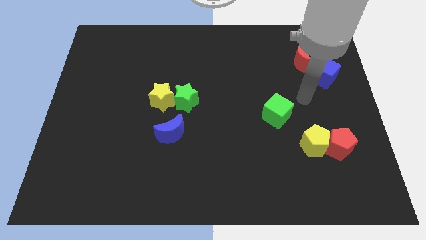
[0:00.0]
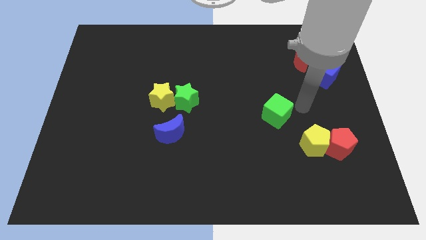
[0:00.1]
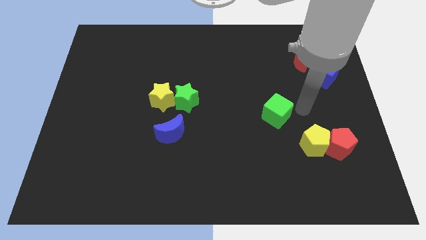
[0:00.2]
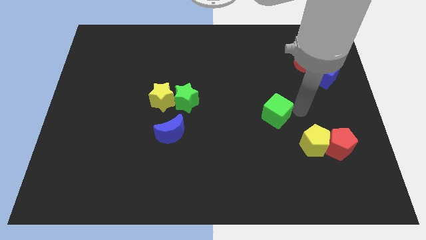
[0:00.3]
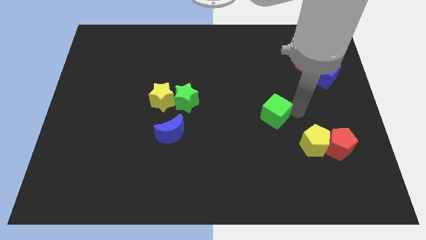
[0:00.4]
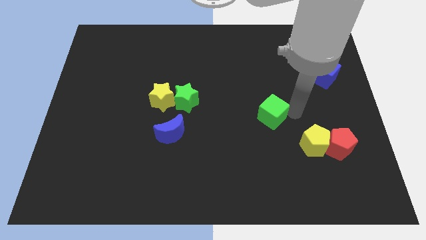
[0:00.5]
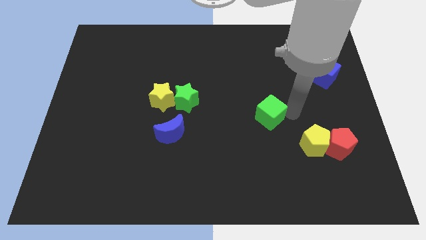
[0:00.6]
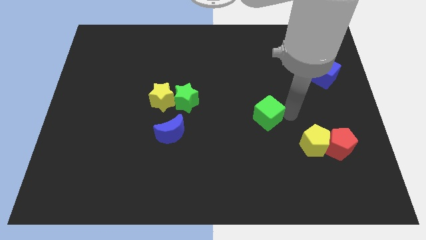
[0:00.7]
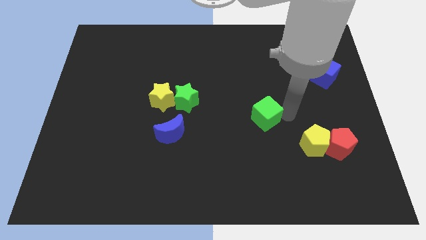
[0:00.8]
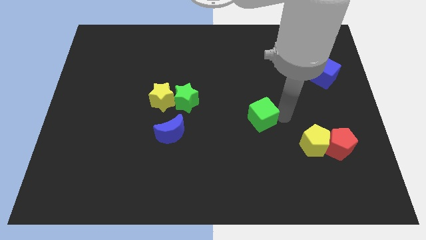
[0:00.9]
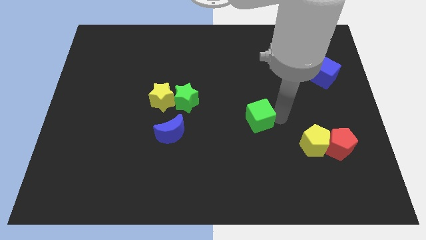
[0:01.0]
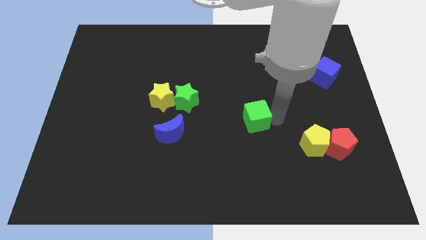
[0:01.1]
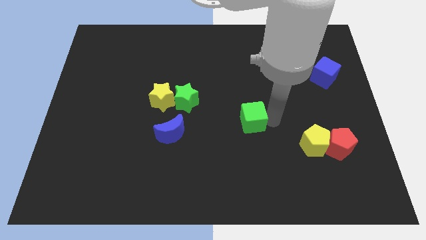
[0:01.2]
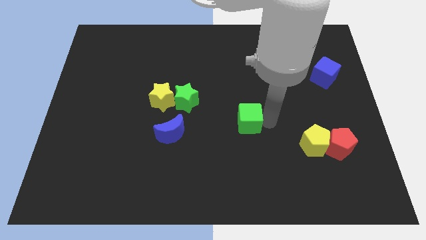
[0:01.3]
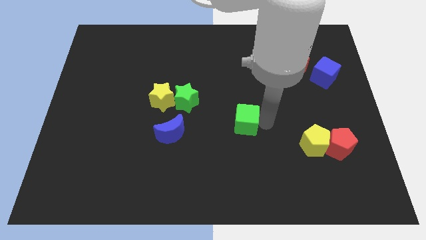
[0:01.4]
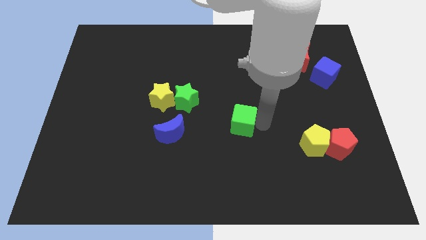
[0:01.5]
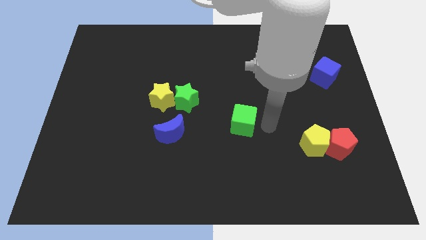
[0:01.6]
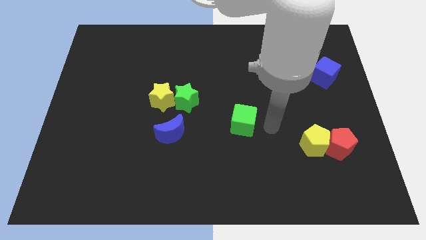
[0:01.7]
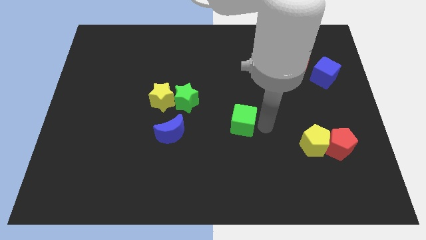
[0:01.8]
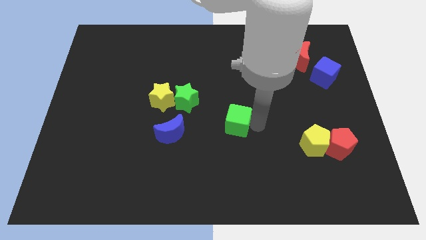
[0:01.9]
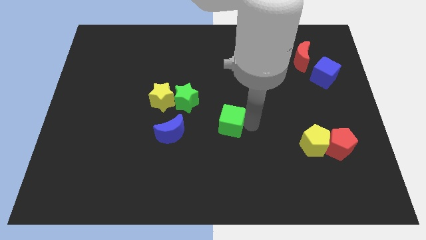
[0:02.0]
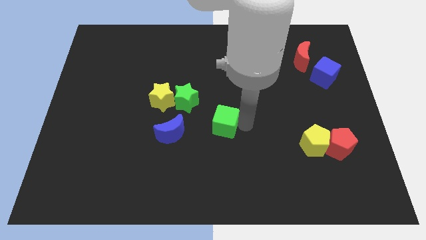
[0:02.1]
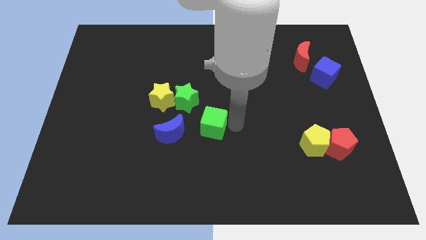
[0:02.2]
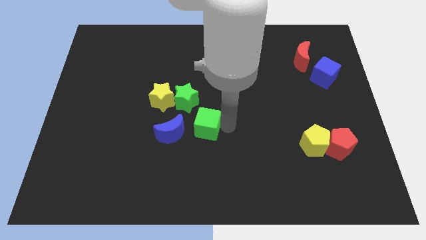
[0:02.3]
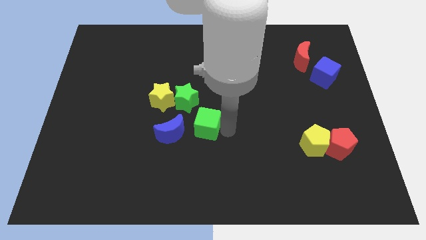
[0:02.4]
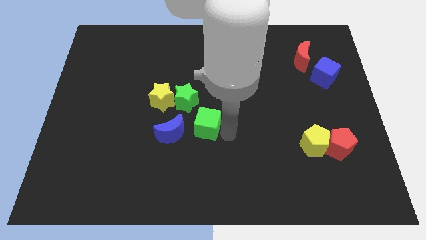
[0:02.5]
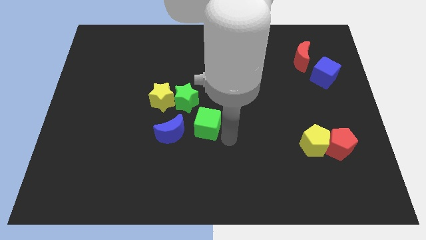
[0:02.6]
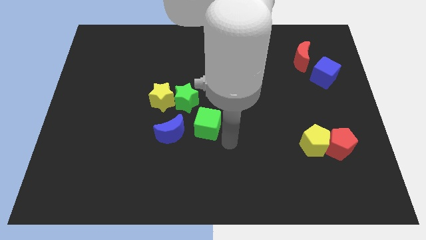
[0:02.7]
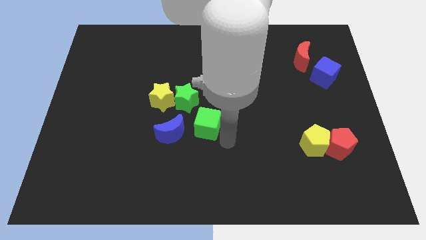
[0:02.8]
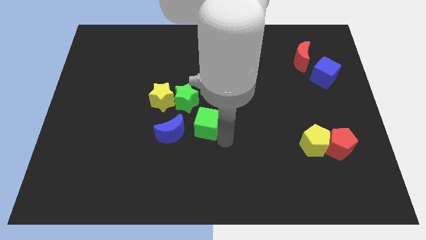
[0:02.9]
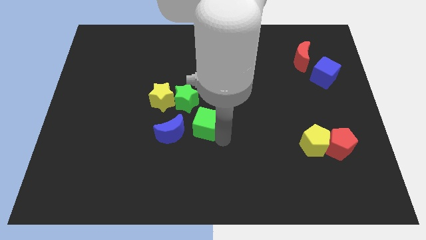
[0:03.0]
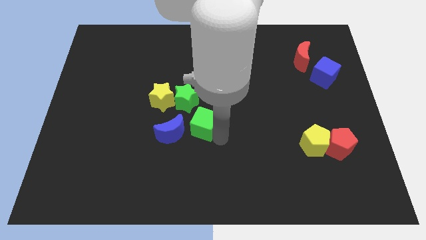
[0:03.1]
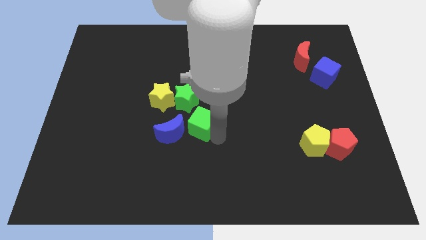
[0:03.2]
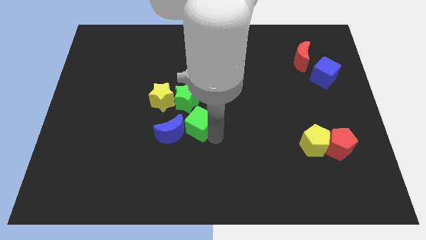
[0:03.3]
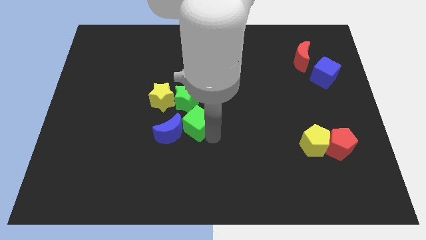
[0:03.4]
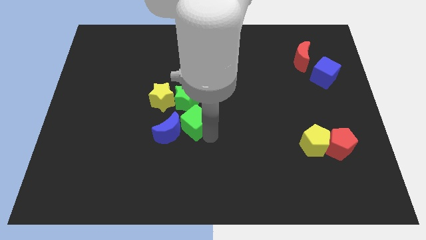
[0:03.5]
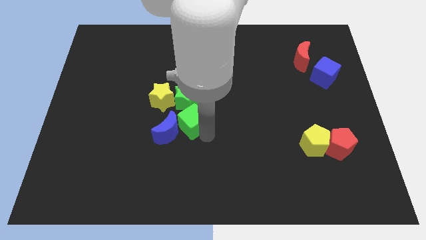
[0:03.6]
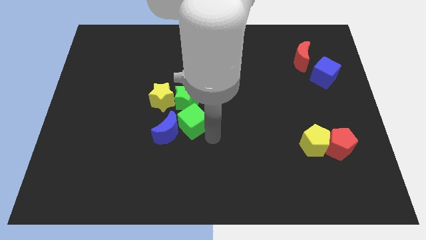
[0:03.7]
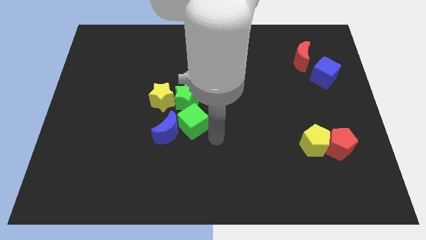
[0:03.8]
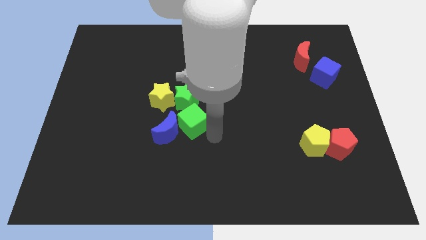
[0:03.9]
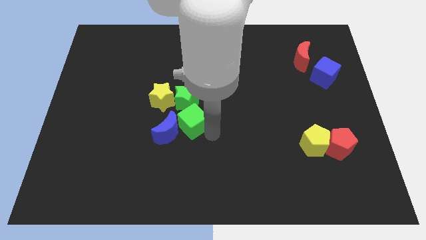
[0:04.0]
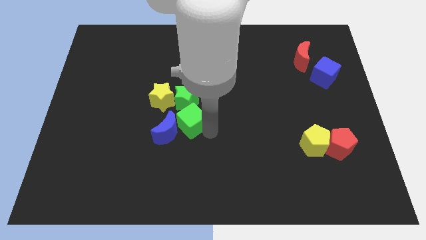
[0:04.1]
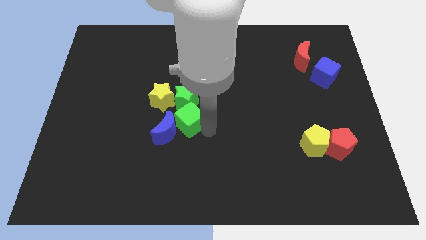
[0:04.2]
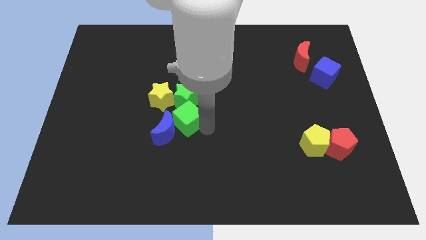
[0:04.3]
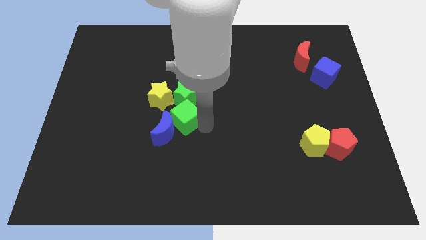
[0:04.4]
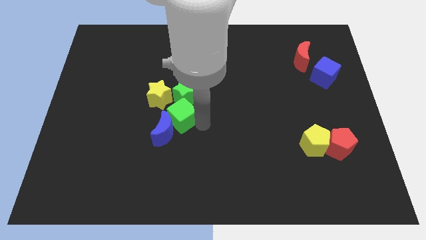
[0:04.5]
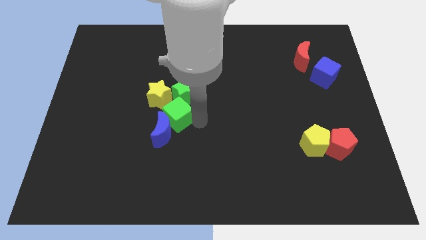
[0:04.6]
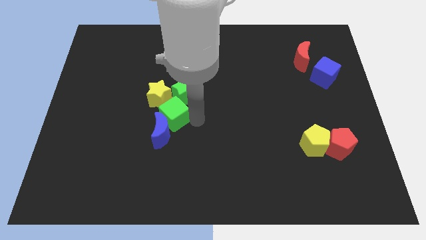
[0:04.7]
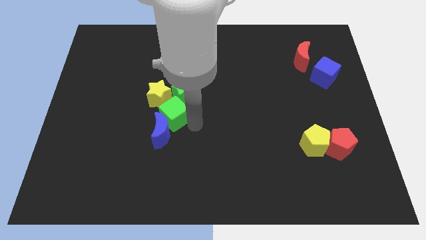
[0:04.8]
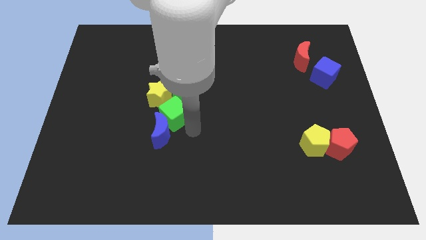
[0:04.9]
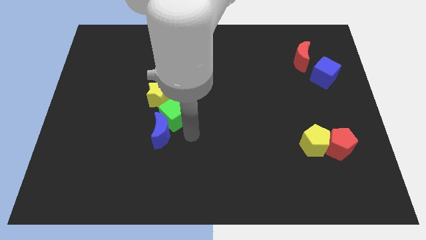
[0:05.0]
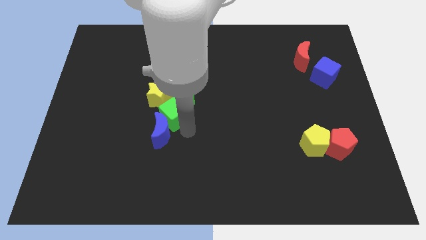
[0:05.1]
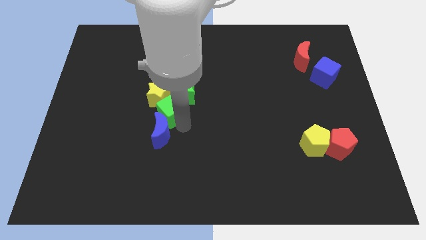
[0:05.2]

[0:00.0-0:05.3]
push the green cube next to the yellow star

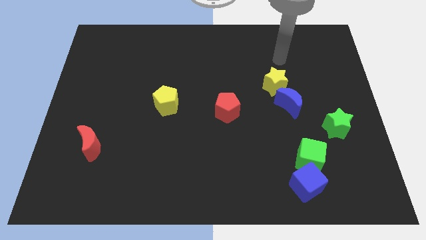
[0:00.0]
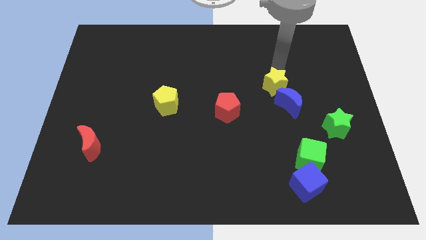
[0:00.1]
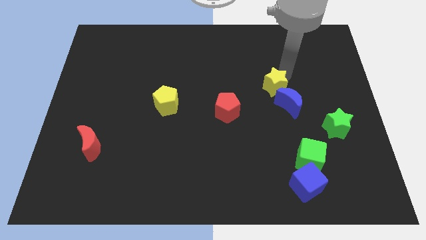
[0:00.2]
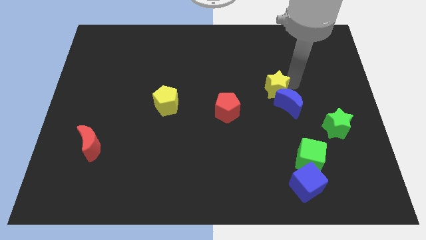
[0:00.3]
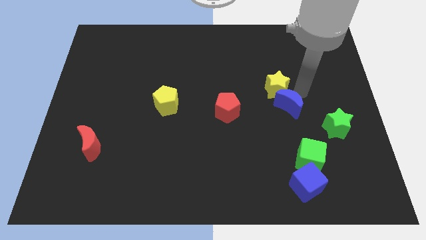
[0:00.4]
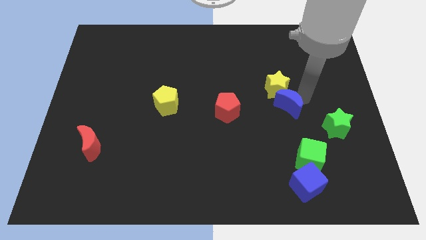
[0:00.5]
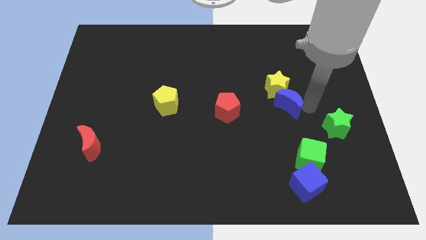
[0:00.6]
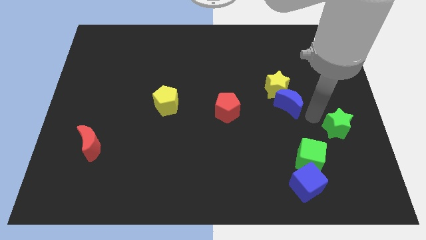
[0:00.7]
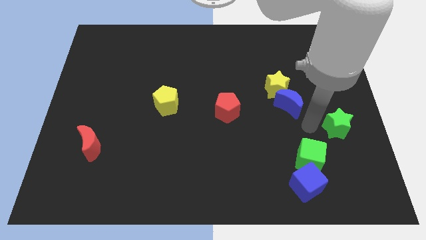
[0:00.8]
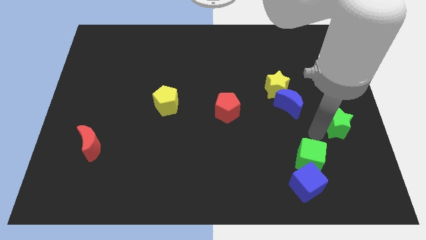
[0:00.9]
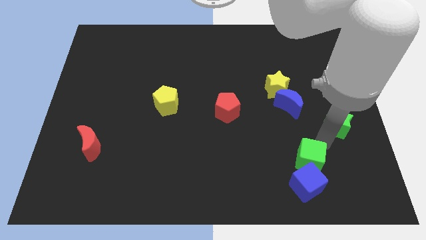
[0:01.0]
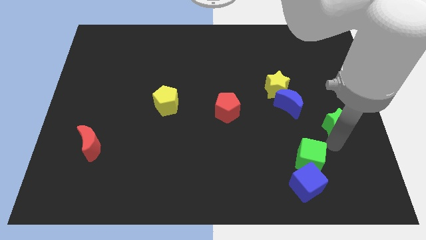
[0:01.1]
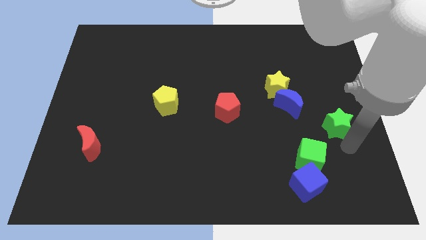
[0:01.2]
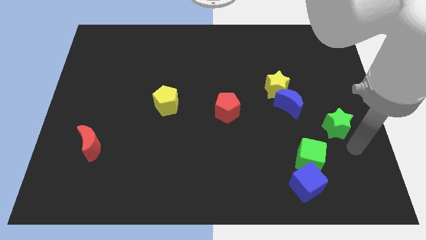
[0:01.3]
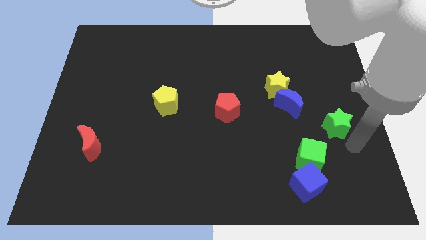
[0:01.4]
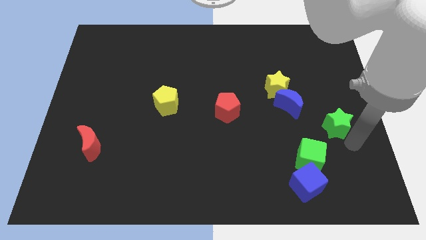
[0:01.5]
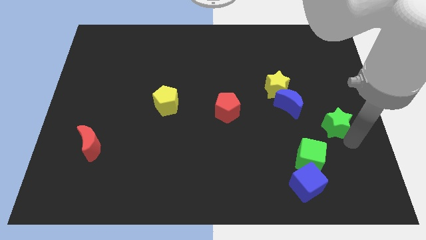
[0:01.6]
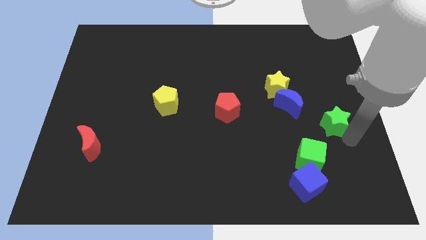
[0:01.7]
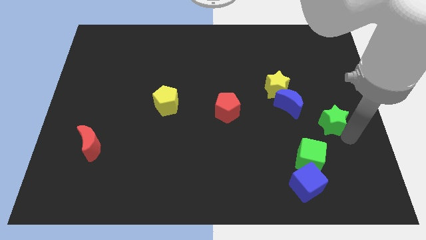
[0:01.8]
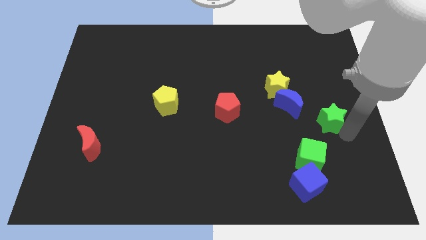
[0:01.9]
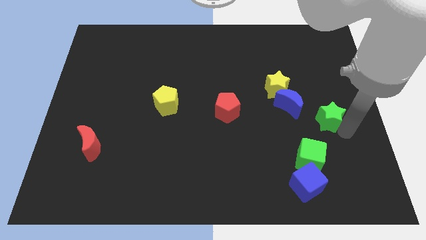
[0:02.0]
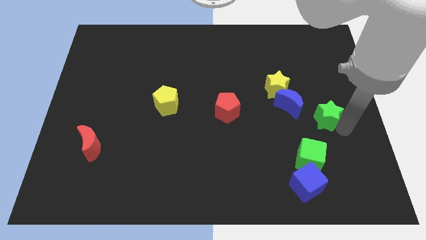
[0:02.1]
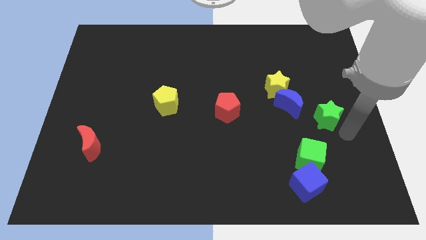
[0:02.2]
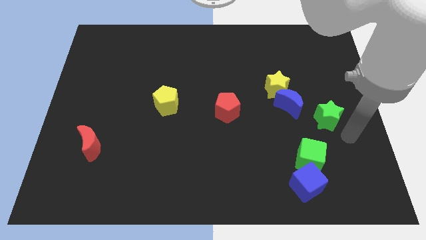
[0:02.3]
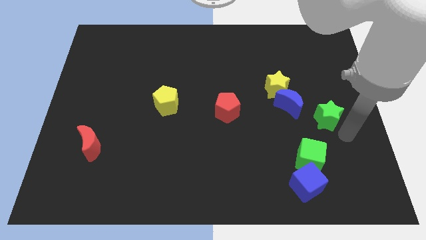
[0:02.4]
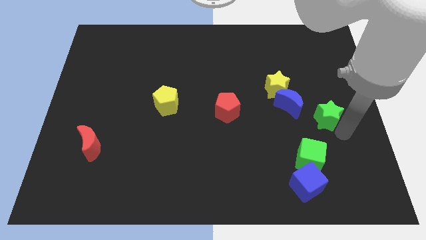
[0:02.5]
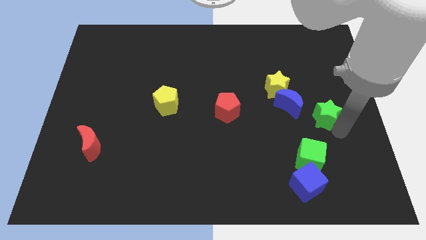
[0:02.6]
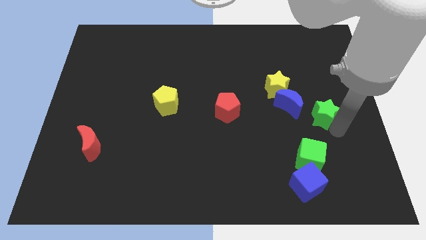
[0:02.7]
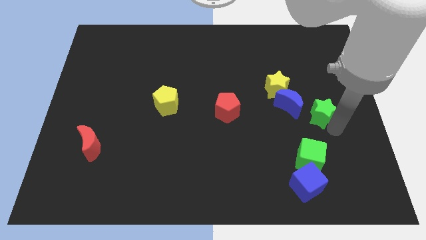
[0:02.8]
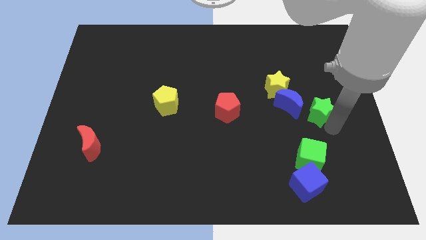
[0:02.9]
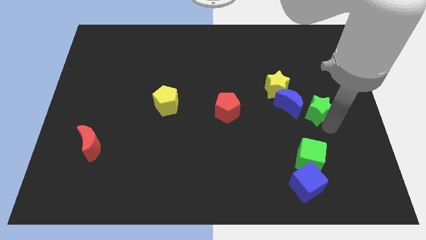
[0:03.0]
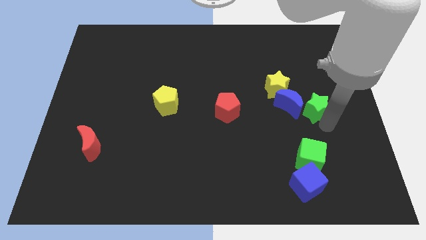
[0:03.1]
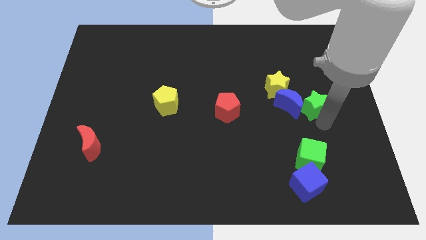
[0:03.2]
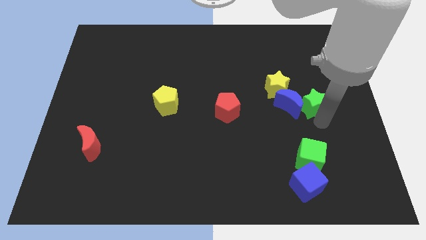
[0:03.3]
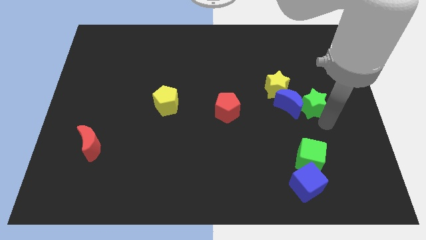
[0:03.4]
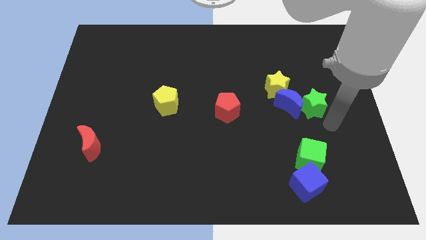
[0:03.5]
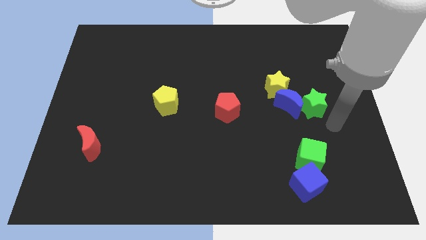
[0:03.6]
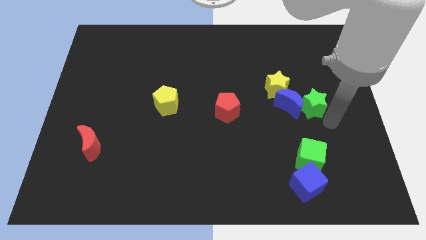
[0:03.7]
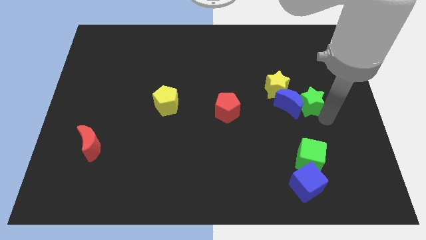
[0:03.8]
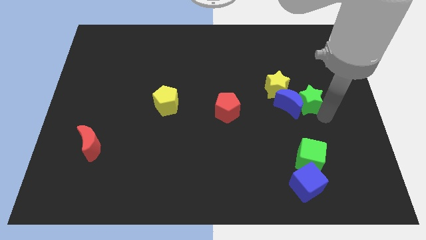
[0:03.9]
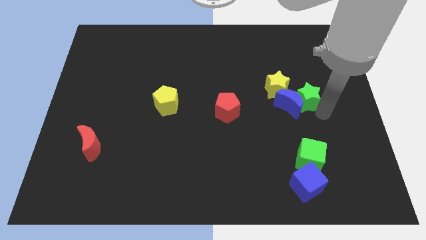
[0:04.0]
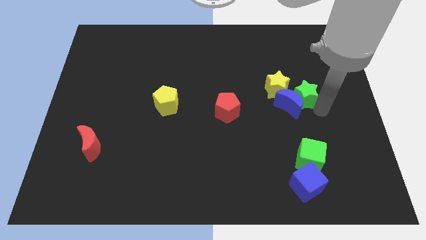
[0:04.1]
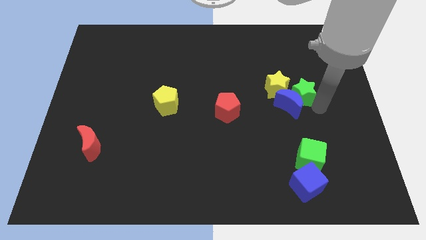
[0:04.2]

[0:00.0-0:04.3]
push the green star close to the yellow star
